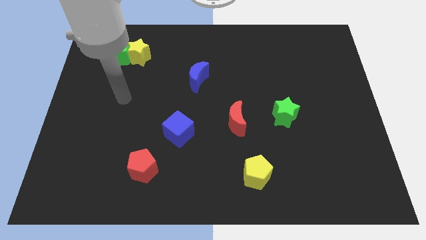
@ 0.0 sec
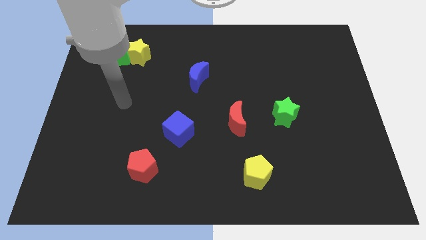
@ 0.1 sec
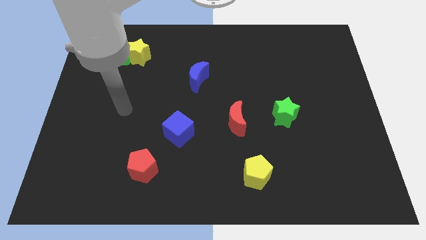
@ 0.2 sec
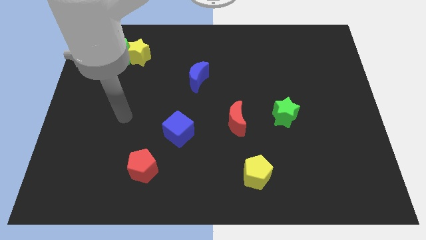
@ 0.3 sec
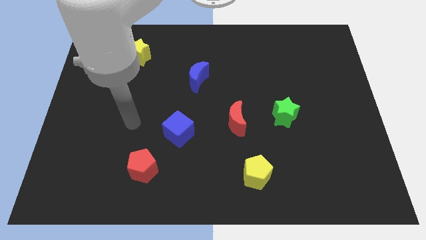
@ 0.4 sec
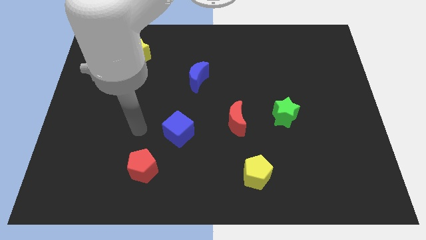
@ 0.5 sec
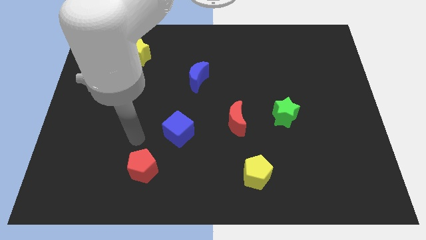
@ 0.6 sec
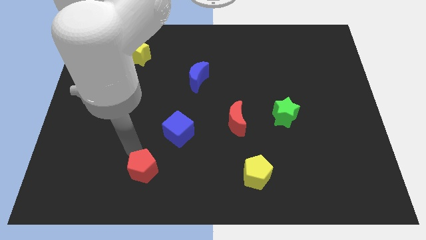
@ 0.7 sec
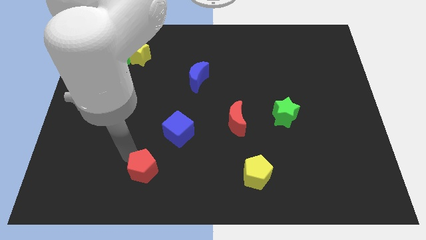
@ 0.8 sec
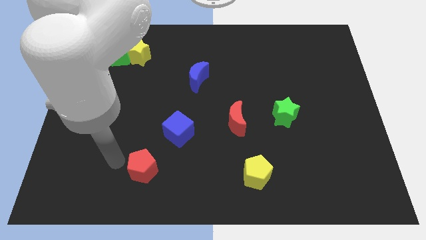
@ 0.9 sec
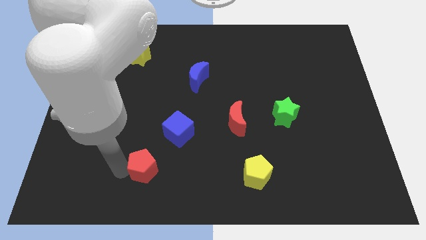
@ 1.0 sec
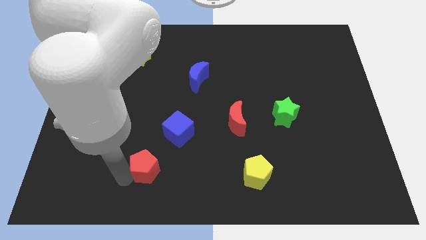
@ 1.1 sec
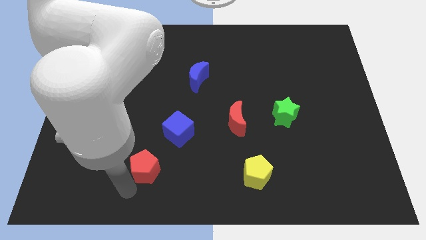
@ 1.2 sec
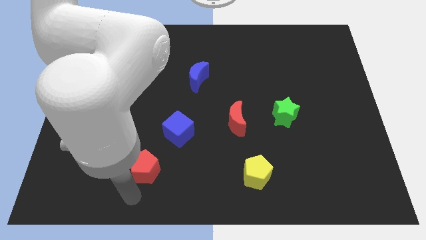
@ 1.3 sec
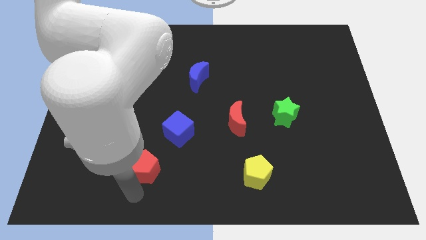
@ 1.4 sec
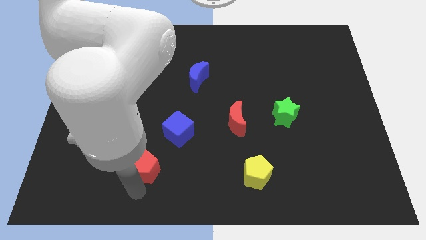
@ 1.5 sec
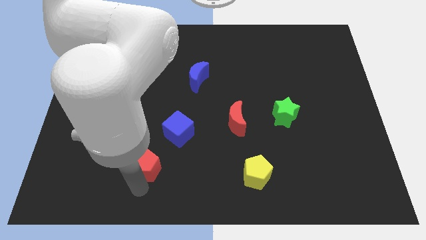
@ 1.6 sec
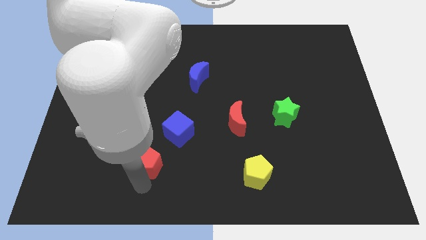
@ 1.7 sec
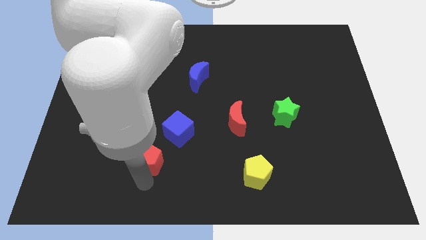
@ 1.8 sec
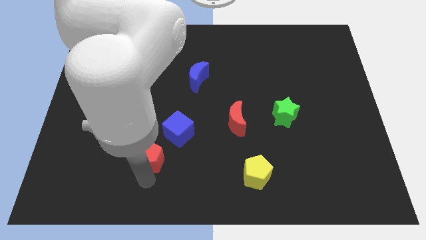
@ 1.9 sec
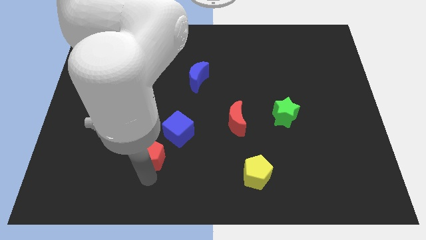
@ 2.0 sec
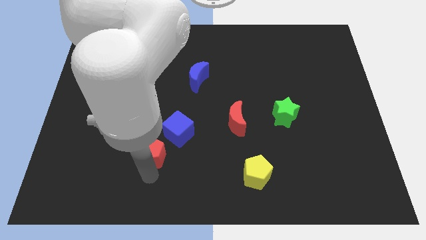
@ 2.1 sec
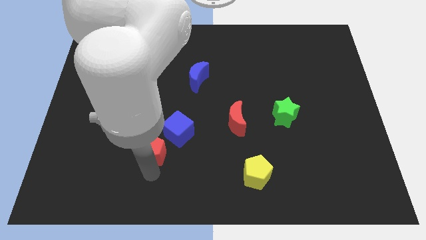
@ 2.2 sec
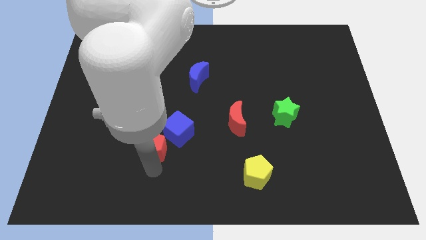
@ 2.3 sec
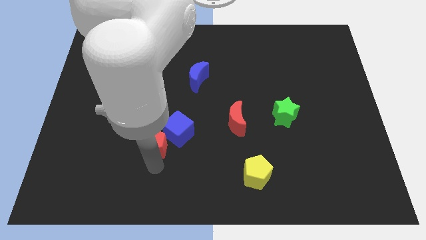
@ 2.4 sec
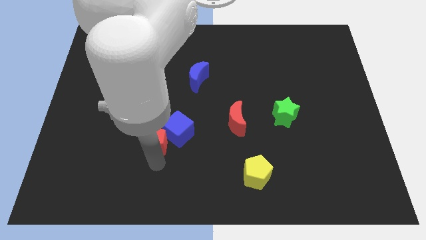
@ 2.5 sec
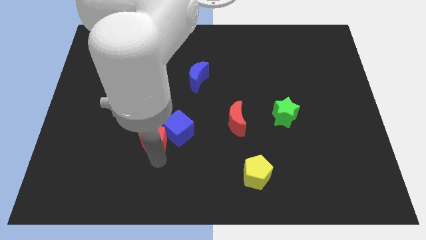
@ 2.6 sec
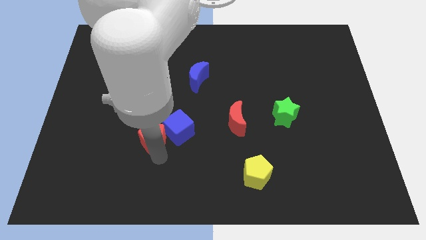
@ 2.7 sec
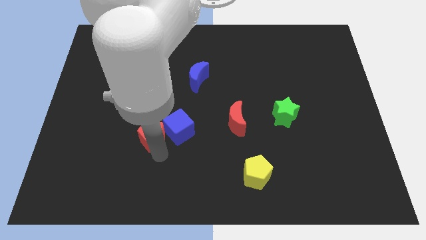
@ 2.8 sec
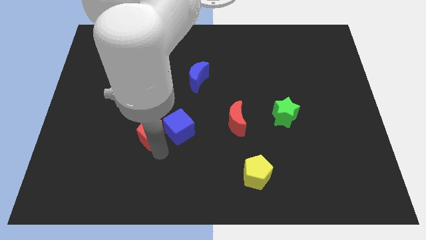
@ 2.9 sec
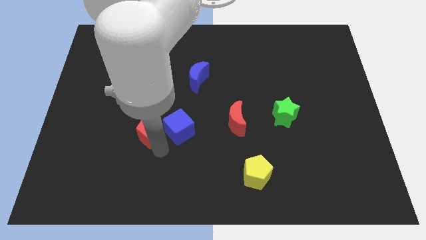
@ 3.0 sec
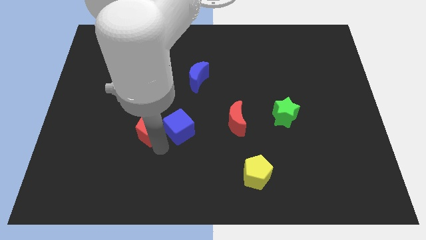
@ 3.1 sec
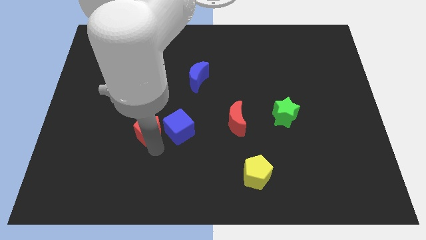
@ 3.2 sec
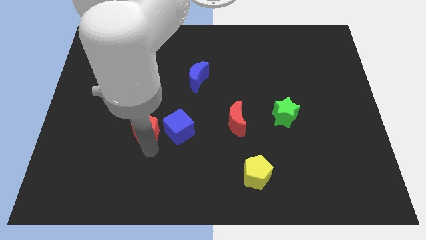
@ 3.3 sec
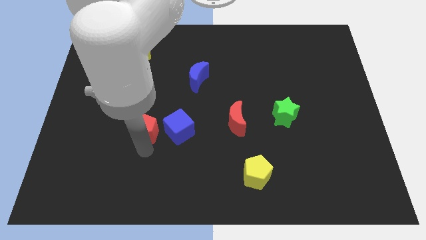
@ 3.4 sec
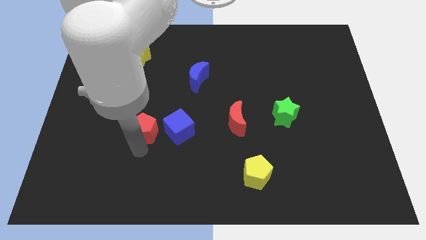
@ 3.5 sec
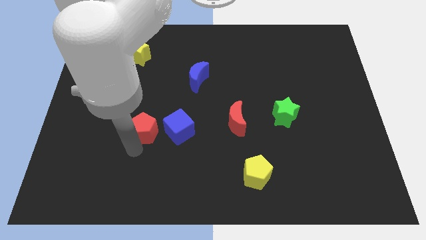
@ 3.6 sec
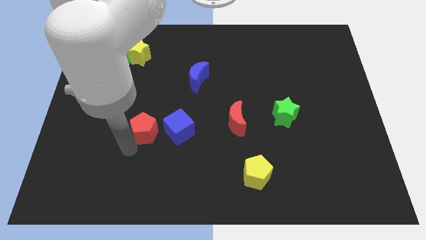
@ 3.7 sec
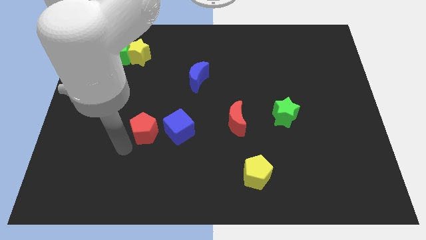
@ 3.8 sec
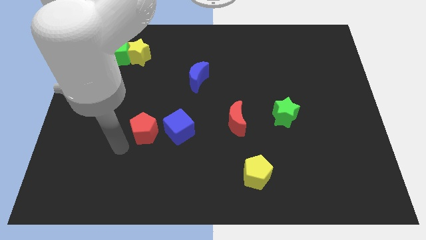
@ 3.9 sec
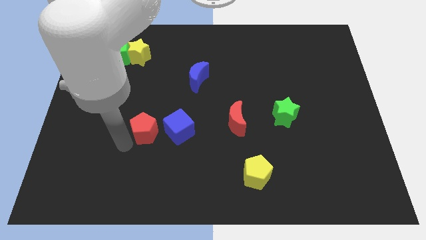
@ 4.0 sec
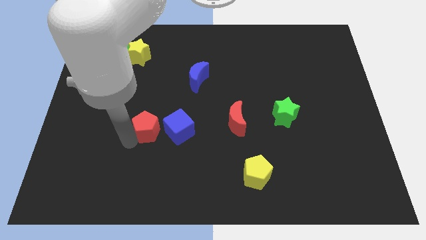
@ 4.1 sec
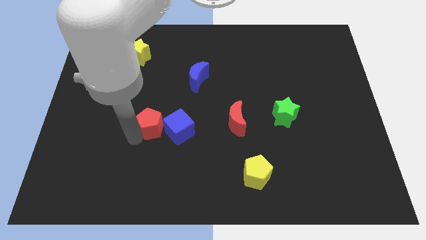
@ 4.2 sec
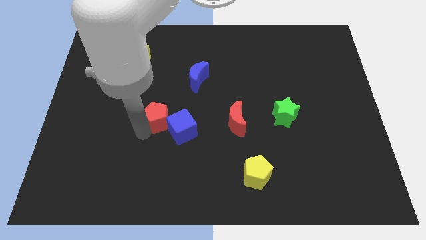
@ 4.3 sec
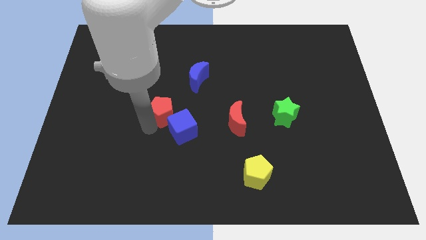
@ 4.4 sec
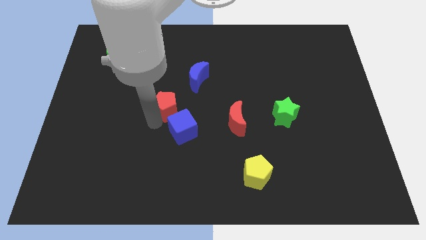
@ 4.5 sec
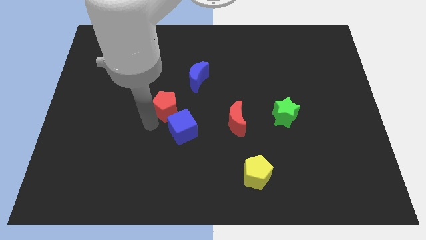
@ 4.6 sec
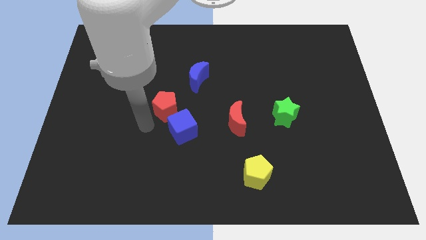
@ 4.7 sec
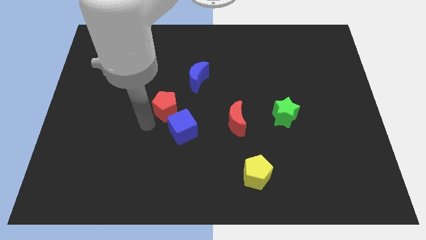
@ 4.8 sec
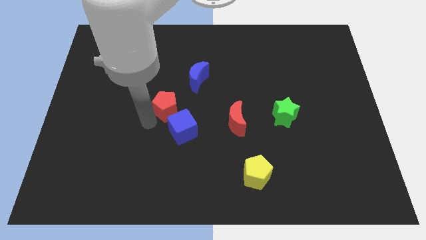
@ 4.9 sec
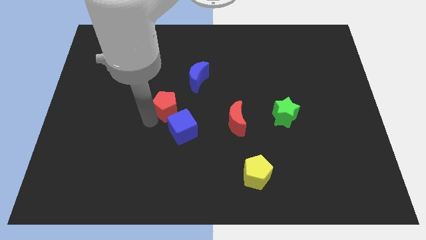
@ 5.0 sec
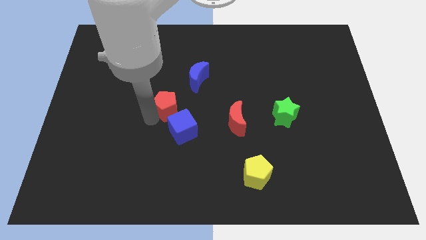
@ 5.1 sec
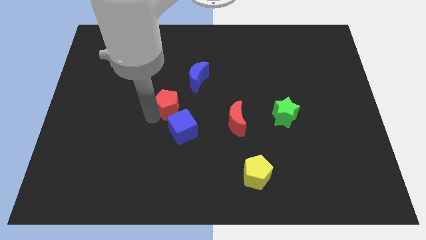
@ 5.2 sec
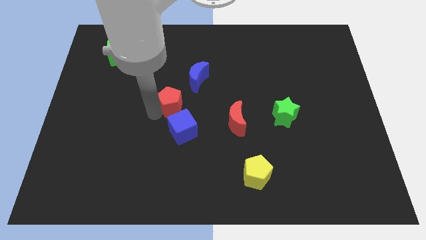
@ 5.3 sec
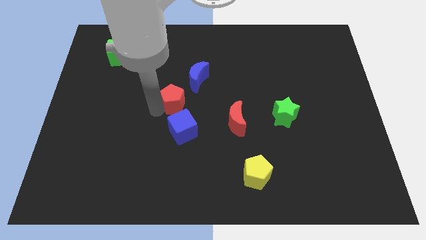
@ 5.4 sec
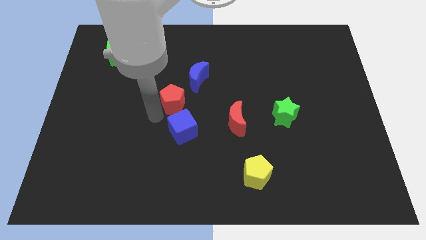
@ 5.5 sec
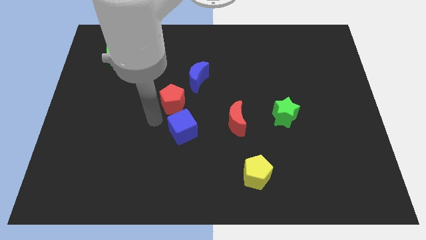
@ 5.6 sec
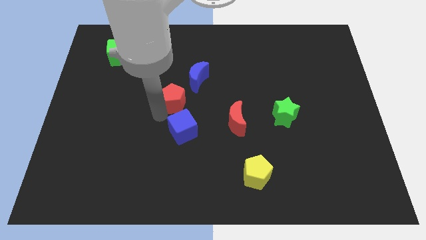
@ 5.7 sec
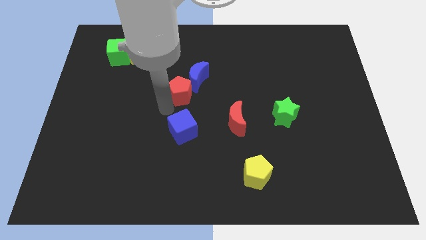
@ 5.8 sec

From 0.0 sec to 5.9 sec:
push the red pentagon to the blue moon

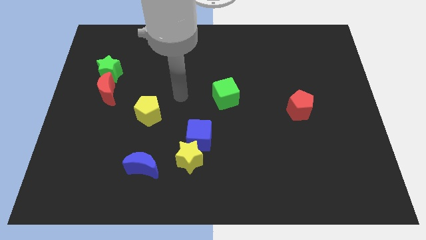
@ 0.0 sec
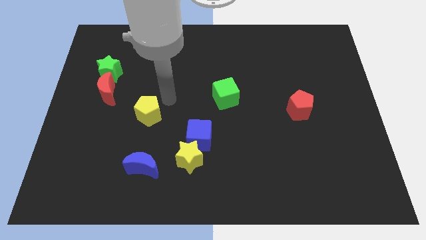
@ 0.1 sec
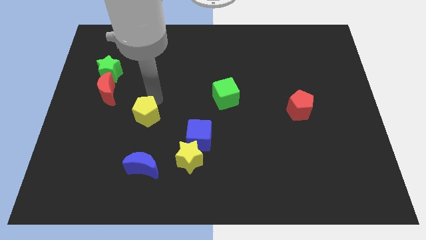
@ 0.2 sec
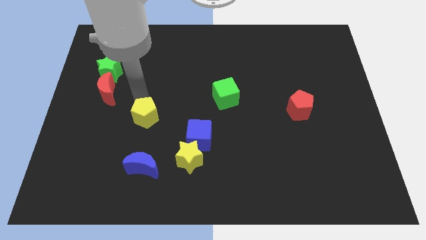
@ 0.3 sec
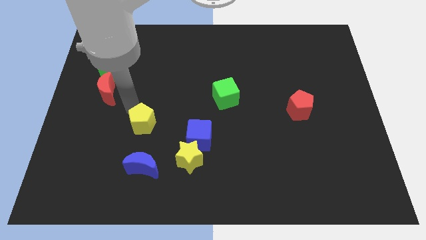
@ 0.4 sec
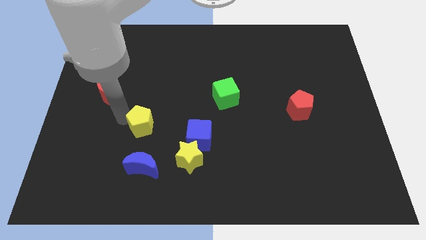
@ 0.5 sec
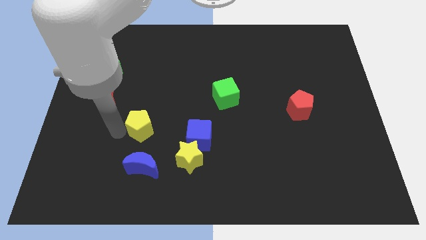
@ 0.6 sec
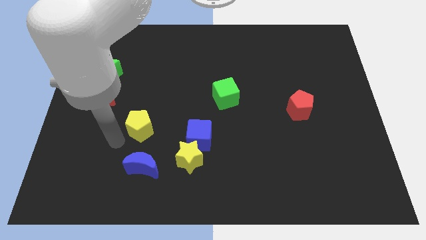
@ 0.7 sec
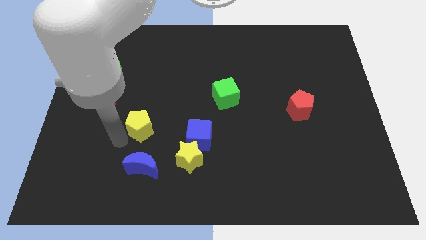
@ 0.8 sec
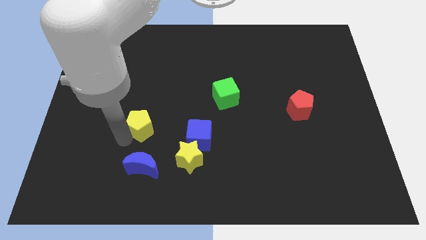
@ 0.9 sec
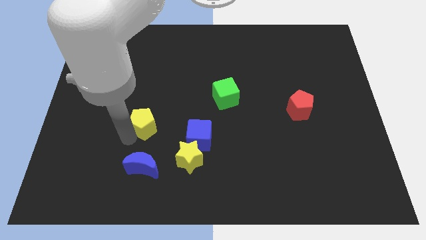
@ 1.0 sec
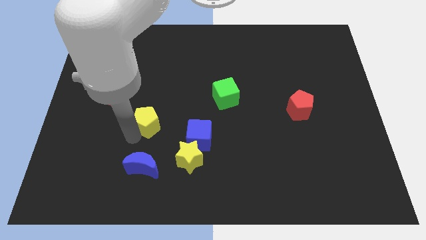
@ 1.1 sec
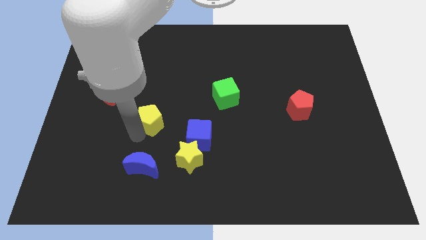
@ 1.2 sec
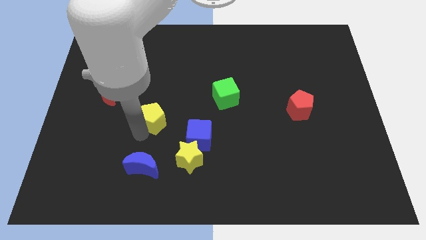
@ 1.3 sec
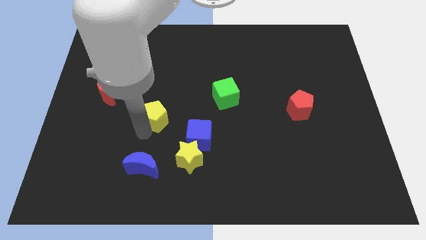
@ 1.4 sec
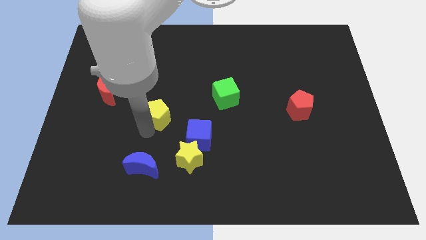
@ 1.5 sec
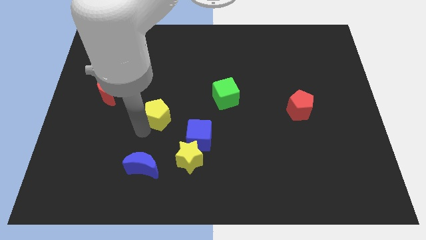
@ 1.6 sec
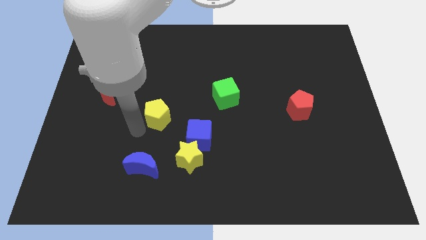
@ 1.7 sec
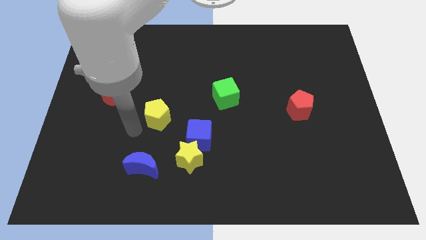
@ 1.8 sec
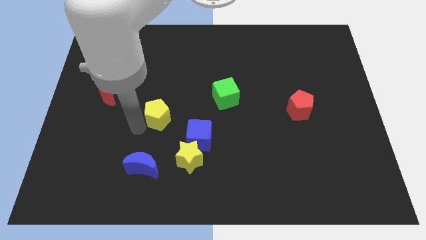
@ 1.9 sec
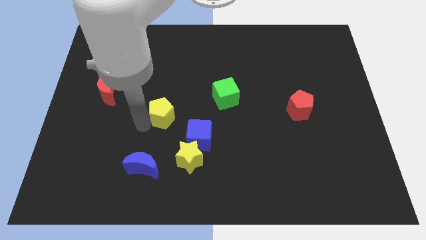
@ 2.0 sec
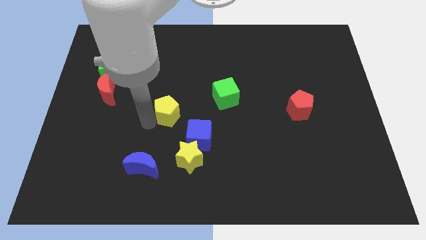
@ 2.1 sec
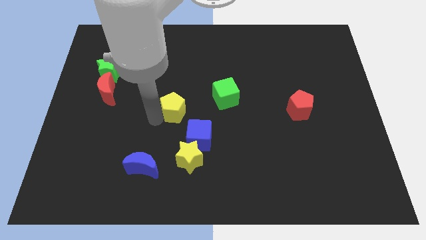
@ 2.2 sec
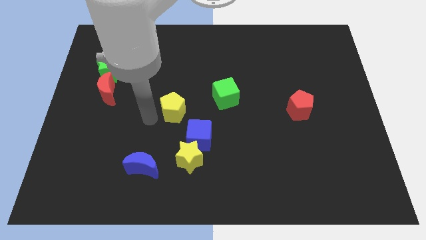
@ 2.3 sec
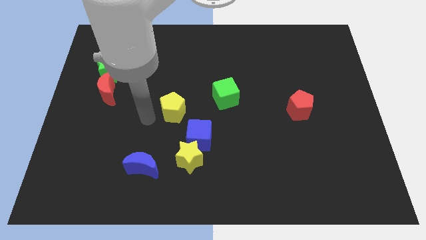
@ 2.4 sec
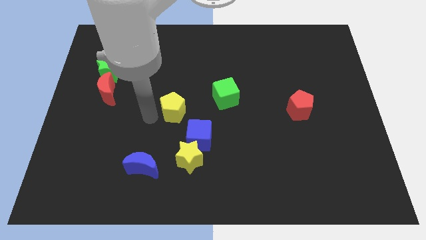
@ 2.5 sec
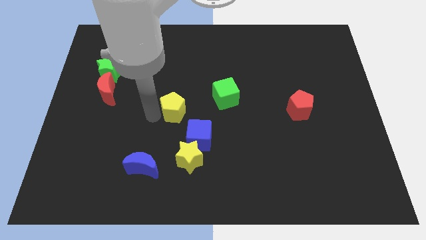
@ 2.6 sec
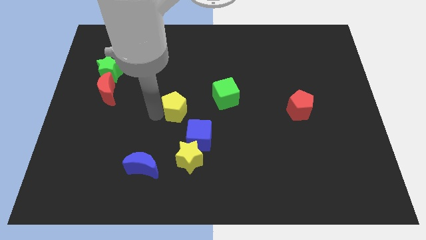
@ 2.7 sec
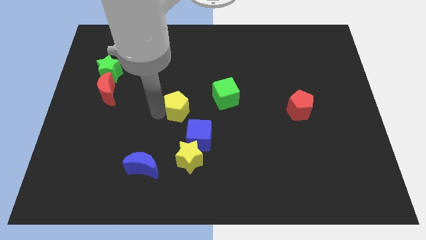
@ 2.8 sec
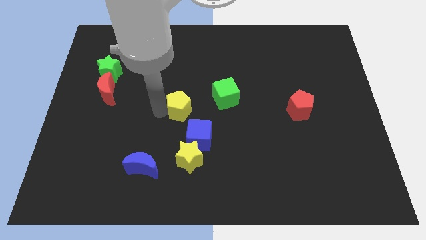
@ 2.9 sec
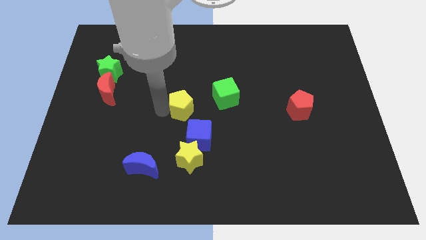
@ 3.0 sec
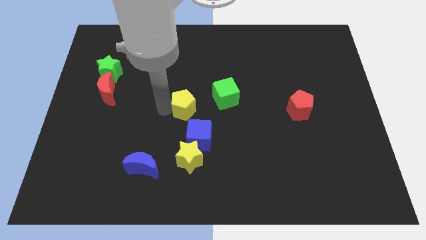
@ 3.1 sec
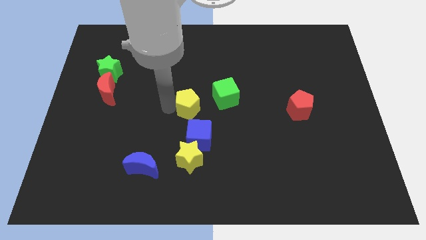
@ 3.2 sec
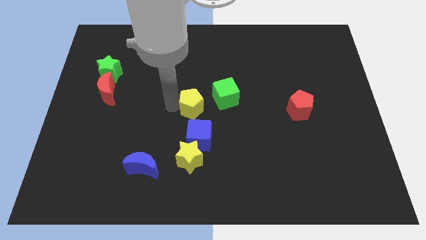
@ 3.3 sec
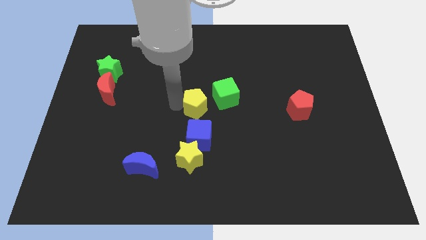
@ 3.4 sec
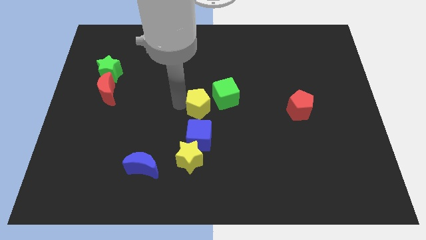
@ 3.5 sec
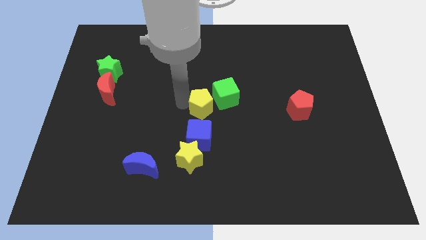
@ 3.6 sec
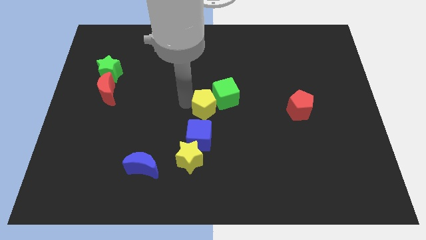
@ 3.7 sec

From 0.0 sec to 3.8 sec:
slide the yellow pentagon towards the green cube
